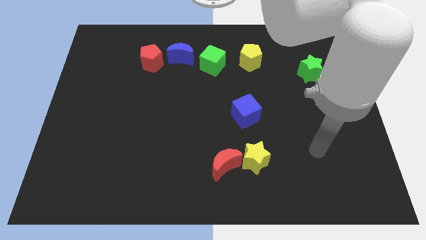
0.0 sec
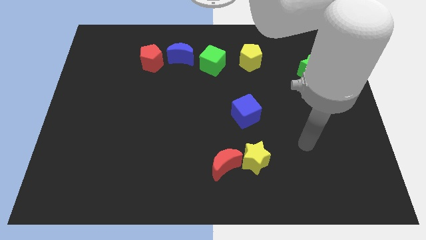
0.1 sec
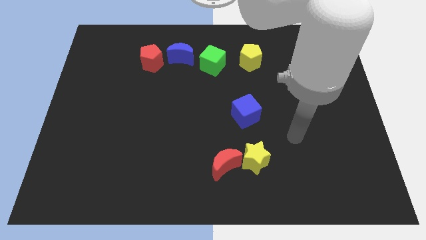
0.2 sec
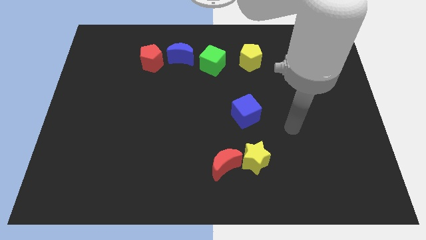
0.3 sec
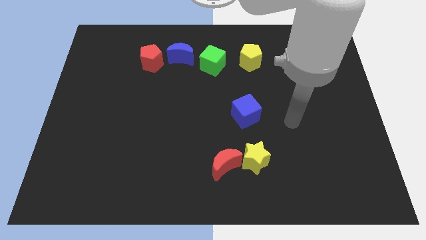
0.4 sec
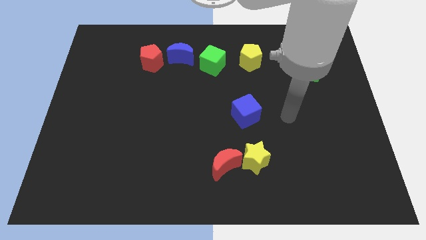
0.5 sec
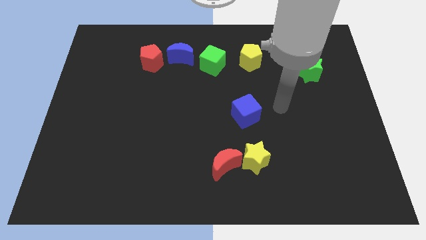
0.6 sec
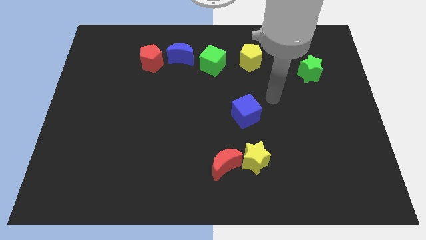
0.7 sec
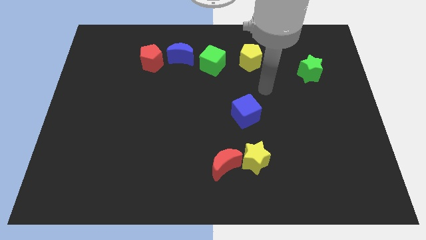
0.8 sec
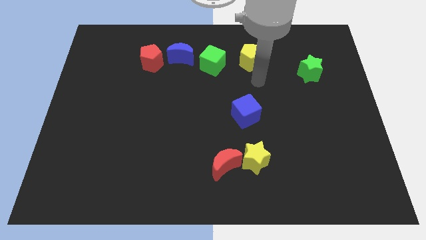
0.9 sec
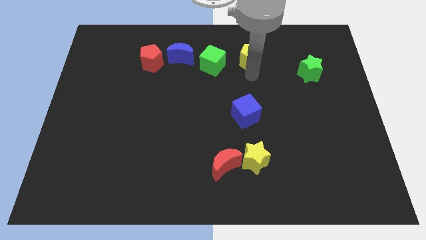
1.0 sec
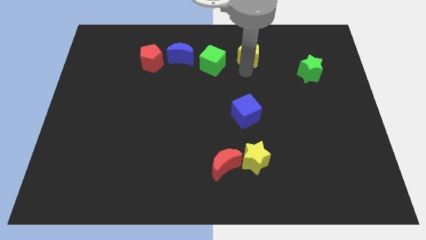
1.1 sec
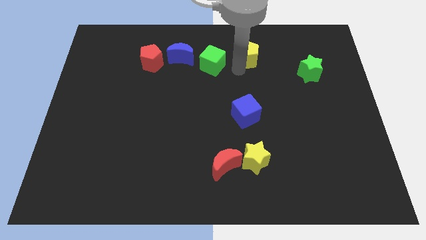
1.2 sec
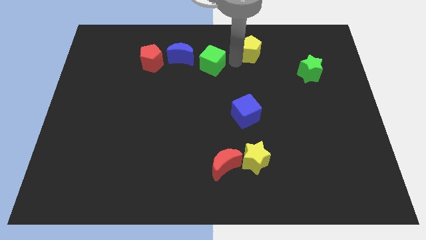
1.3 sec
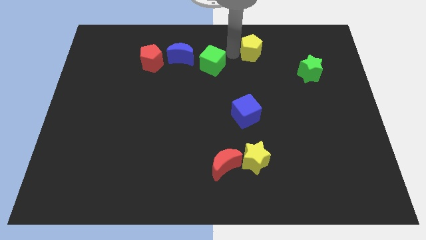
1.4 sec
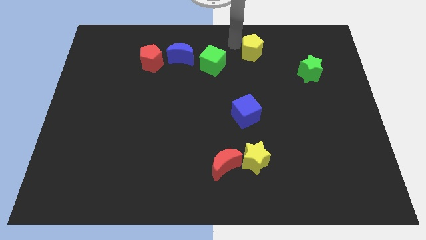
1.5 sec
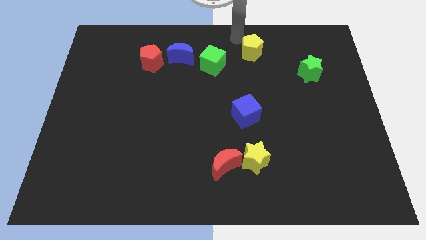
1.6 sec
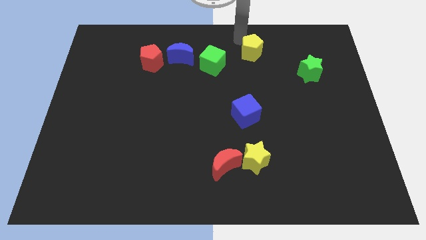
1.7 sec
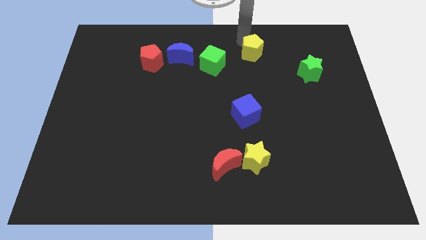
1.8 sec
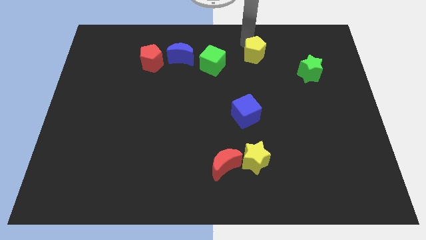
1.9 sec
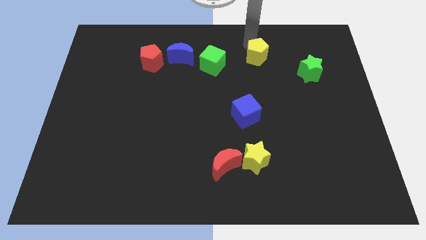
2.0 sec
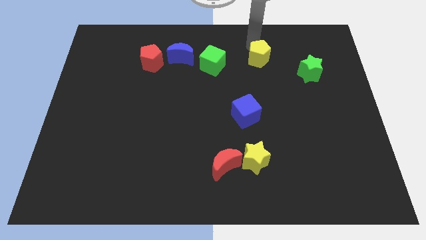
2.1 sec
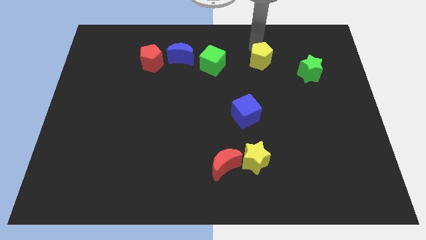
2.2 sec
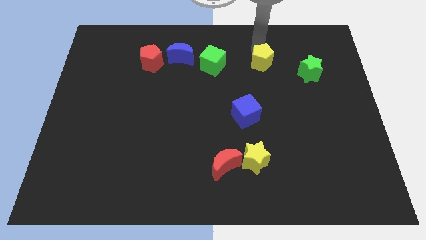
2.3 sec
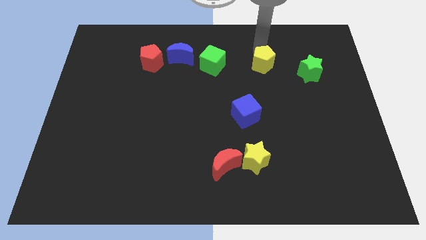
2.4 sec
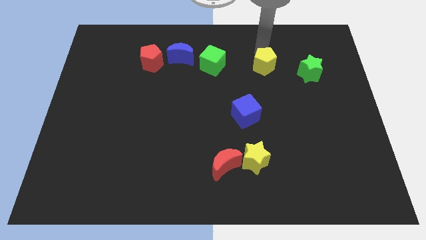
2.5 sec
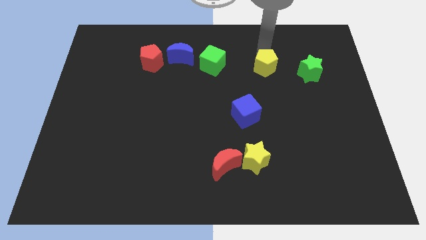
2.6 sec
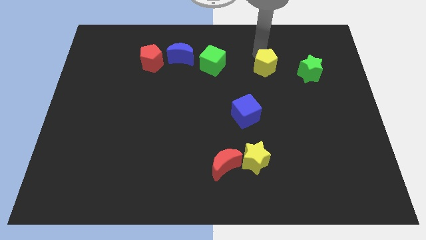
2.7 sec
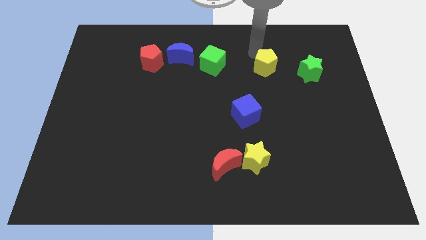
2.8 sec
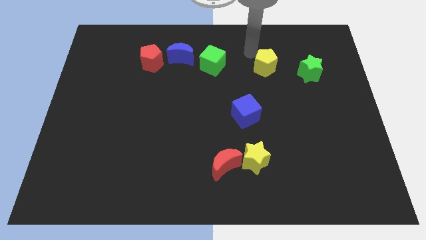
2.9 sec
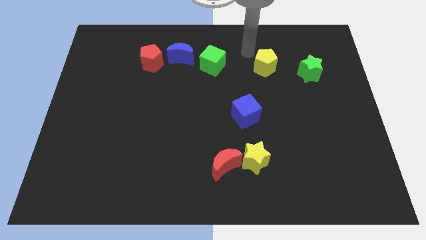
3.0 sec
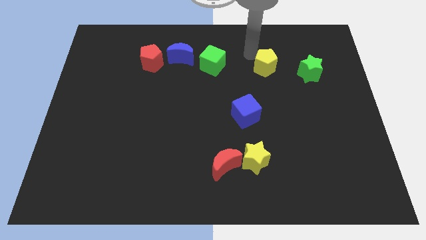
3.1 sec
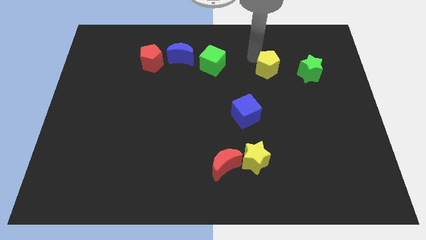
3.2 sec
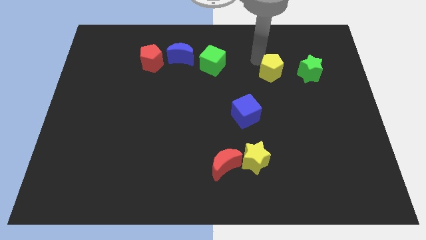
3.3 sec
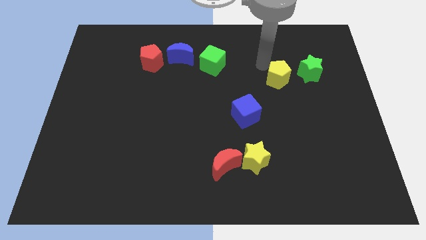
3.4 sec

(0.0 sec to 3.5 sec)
move the yellow pentagon a little down and right diagonally

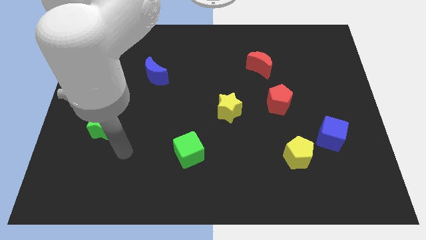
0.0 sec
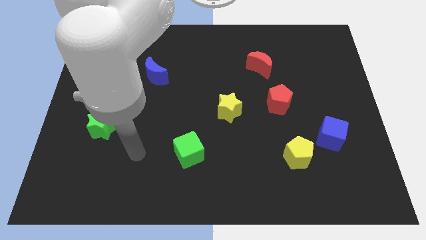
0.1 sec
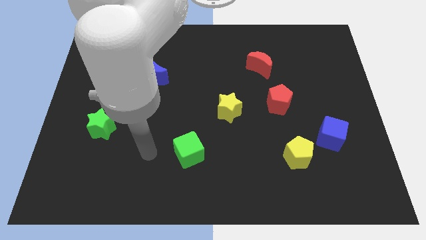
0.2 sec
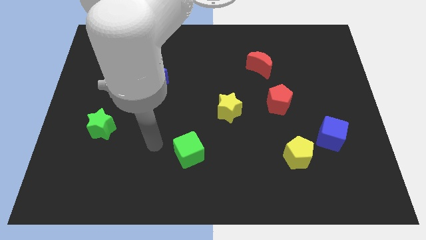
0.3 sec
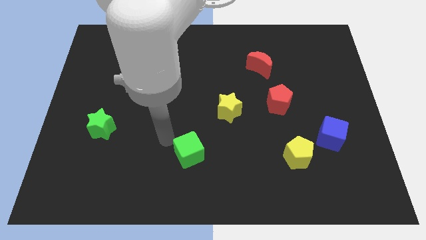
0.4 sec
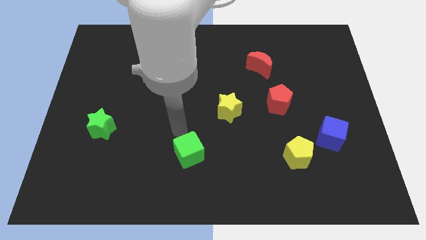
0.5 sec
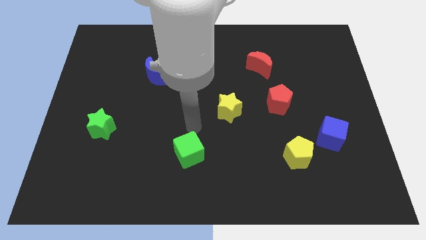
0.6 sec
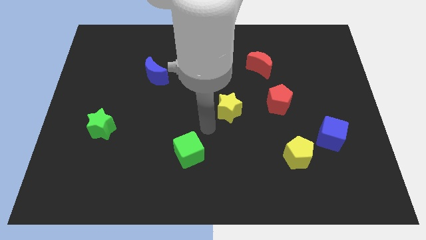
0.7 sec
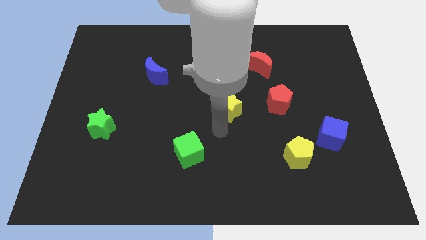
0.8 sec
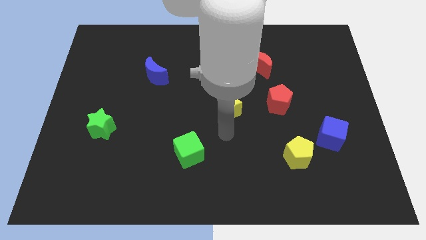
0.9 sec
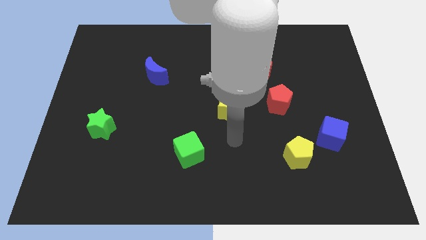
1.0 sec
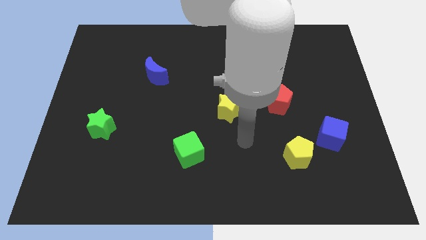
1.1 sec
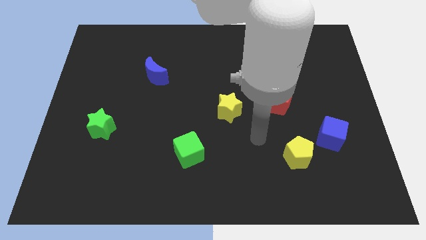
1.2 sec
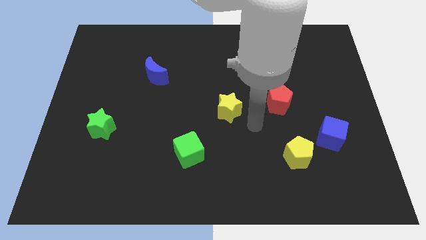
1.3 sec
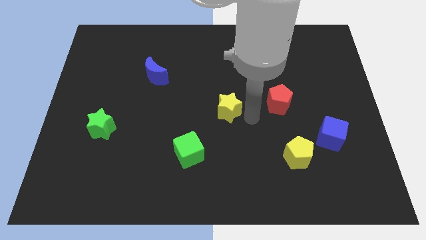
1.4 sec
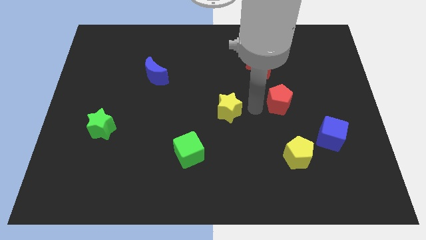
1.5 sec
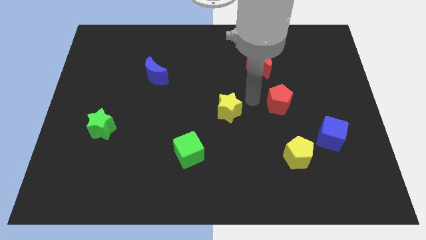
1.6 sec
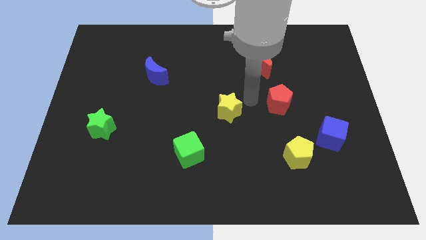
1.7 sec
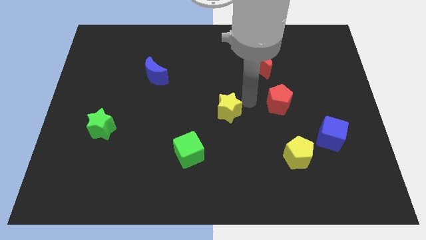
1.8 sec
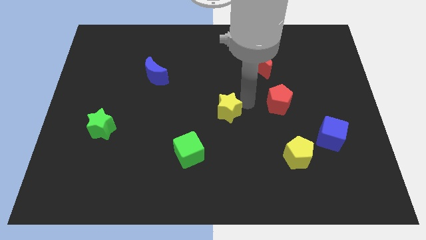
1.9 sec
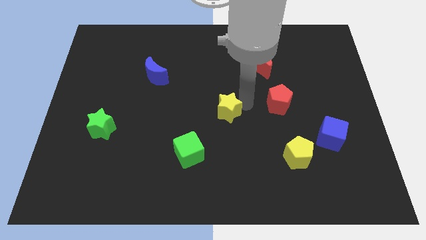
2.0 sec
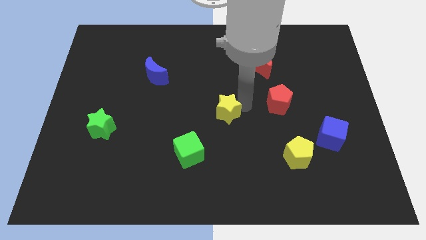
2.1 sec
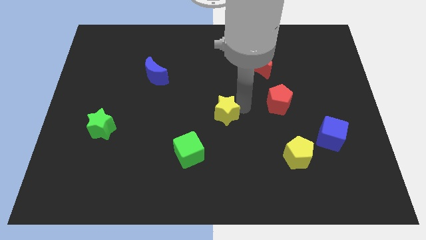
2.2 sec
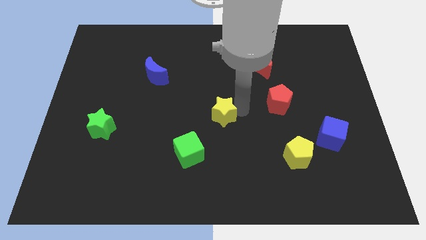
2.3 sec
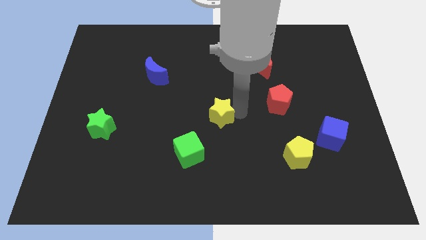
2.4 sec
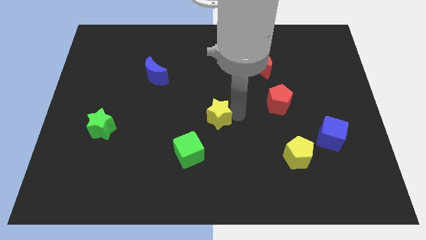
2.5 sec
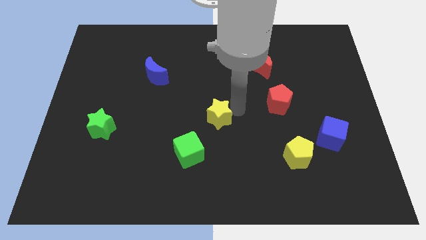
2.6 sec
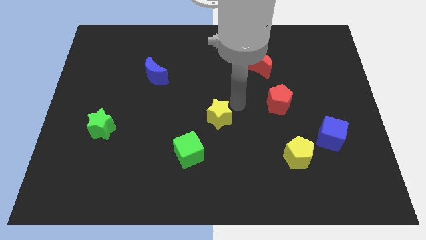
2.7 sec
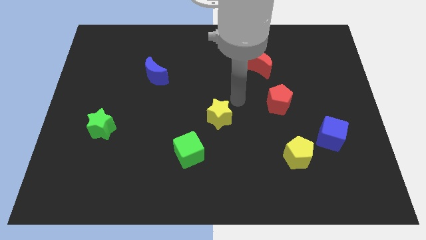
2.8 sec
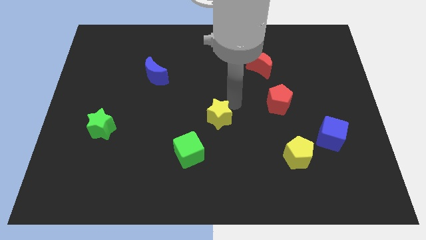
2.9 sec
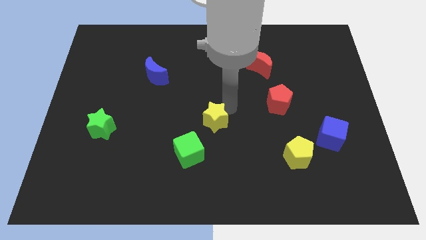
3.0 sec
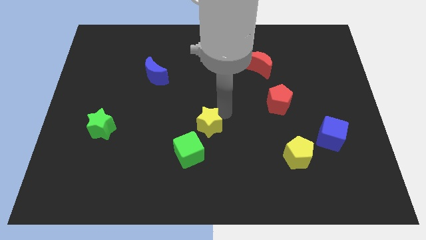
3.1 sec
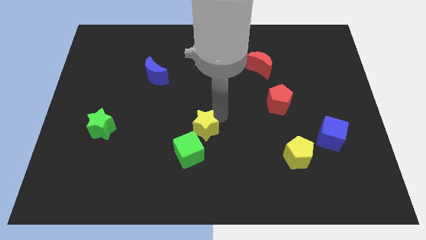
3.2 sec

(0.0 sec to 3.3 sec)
slightly move the yellow star downwards and left

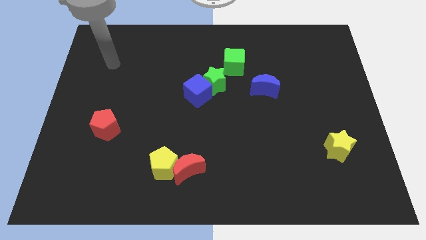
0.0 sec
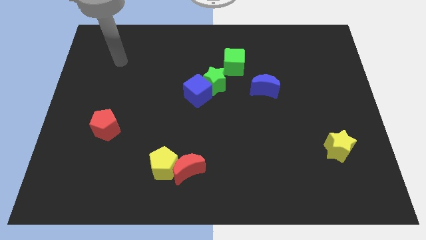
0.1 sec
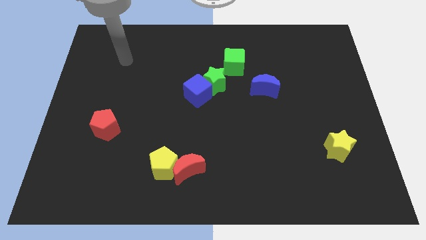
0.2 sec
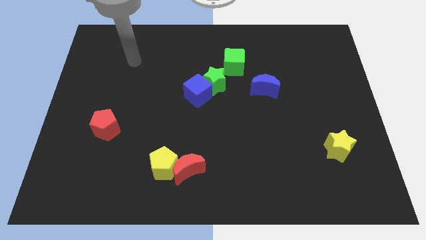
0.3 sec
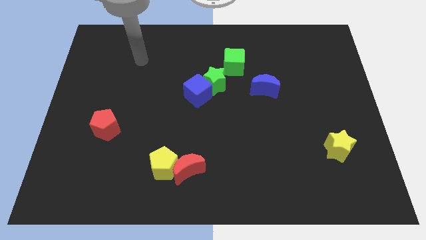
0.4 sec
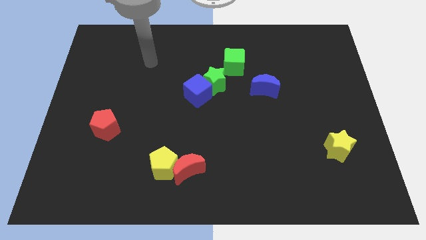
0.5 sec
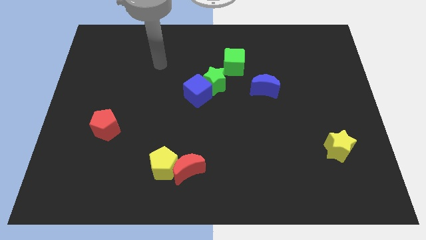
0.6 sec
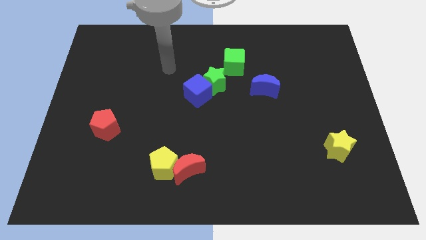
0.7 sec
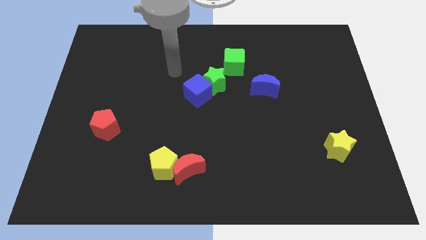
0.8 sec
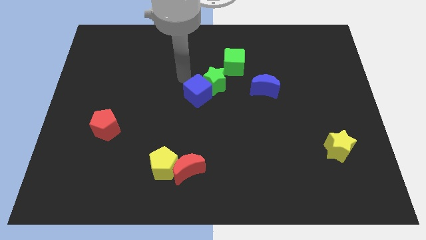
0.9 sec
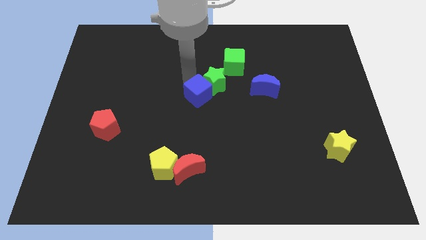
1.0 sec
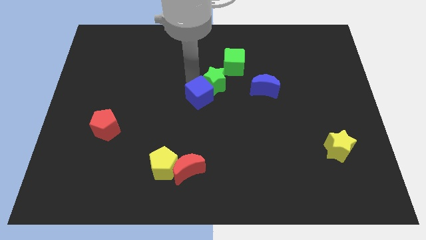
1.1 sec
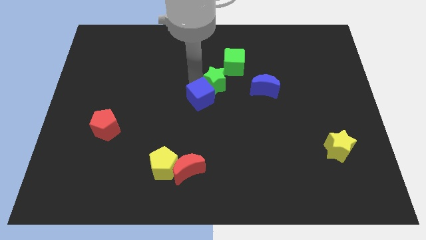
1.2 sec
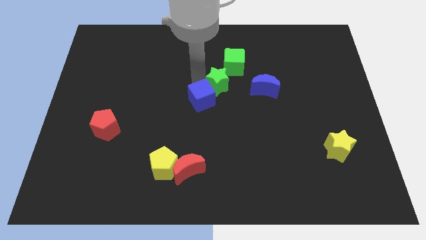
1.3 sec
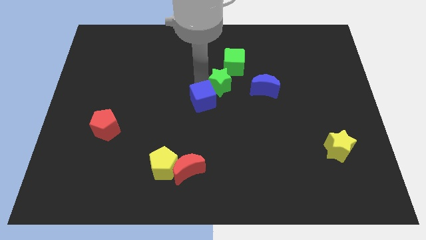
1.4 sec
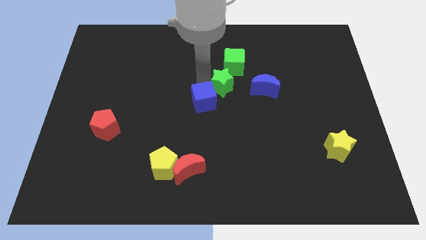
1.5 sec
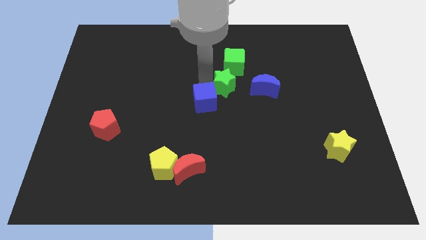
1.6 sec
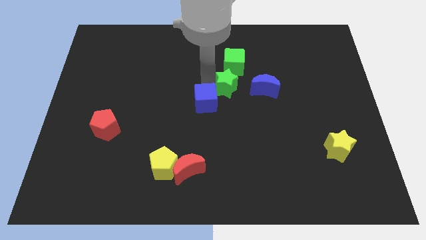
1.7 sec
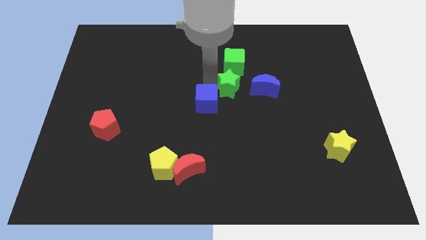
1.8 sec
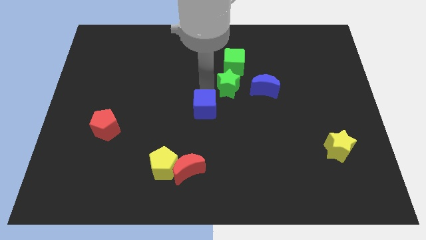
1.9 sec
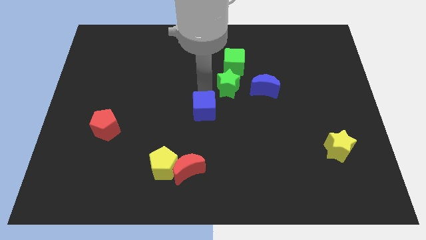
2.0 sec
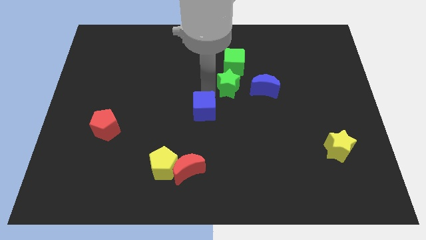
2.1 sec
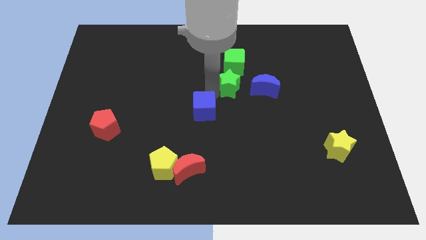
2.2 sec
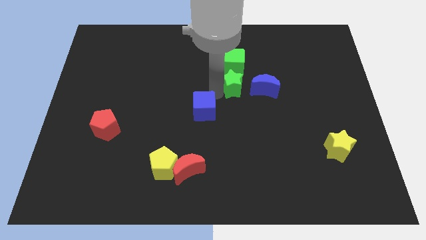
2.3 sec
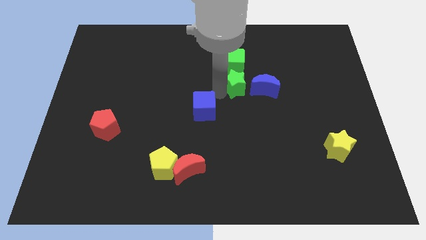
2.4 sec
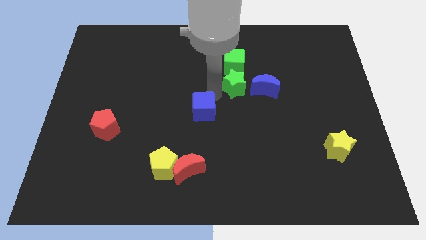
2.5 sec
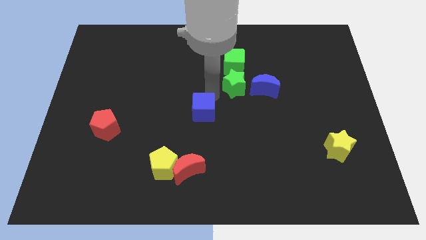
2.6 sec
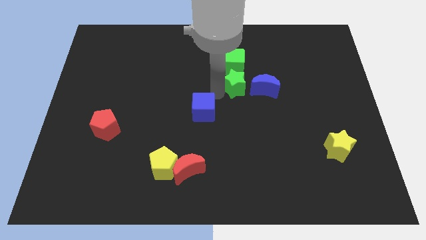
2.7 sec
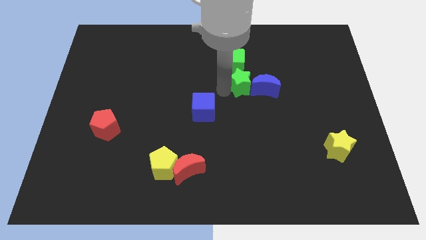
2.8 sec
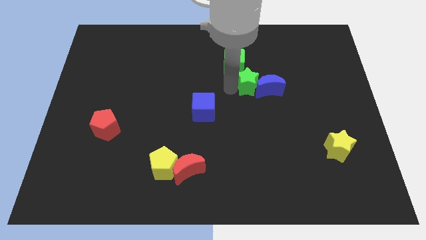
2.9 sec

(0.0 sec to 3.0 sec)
push the green star to the right a little bit
